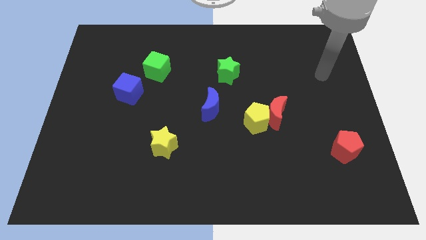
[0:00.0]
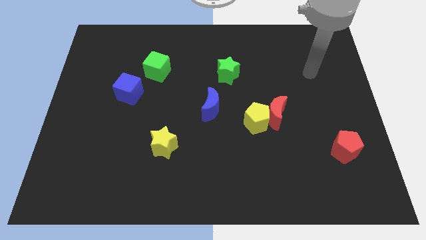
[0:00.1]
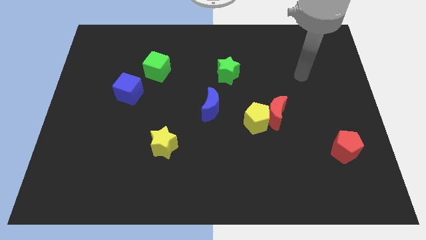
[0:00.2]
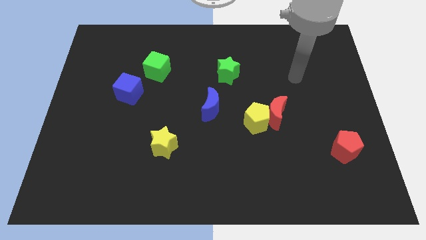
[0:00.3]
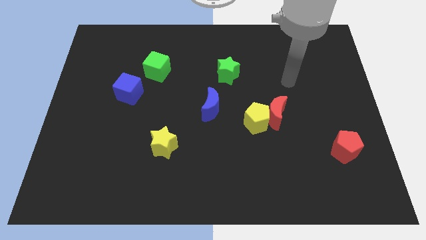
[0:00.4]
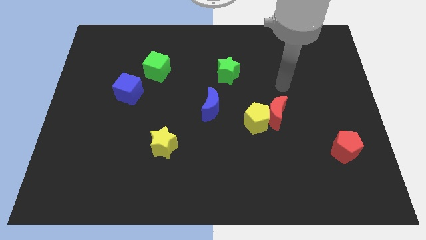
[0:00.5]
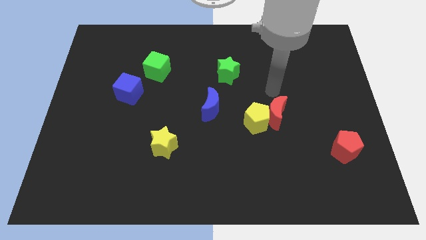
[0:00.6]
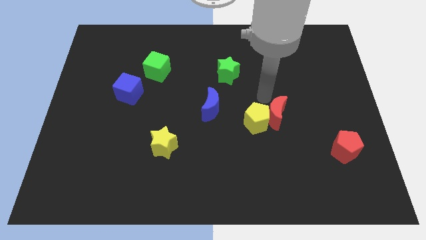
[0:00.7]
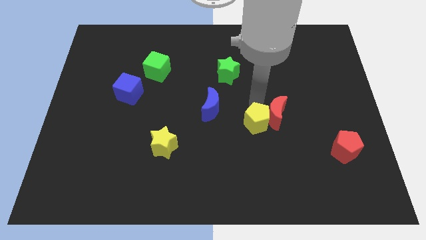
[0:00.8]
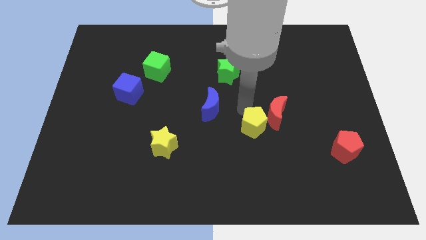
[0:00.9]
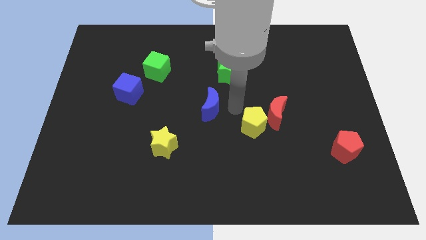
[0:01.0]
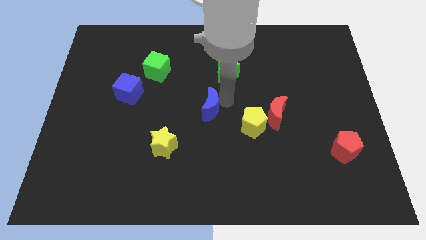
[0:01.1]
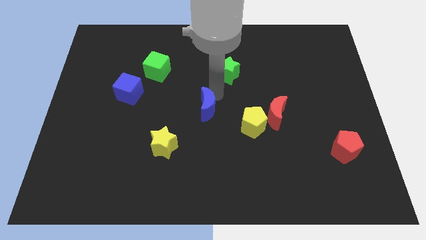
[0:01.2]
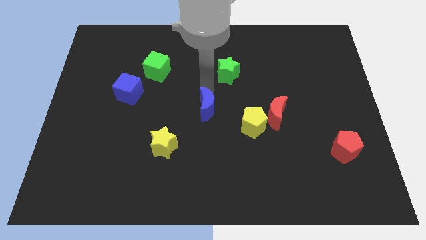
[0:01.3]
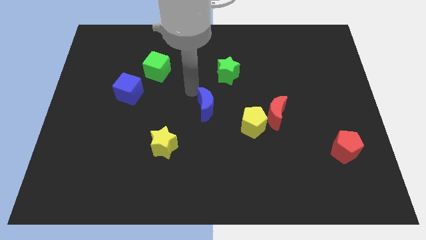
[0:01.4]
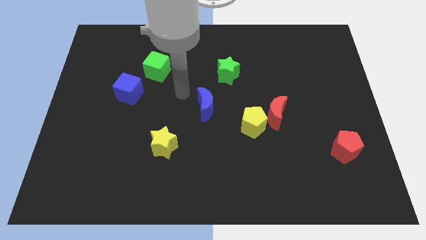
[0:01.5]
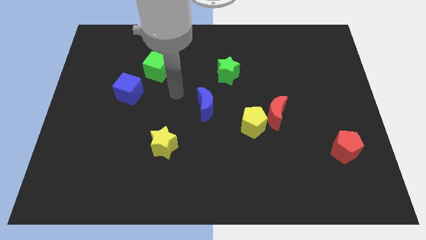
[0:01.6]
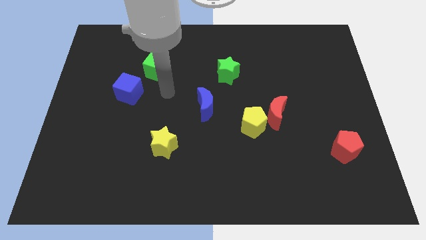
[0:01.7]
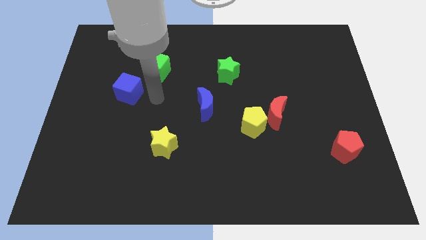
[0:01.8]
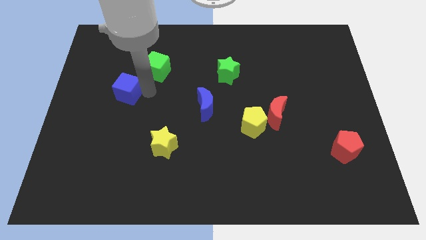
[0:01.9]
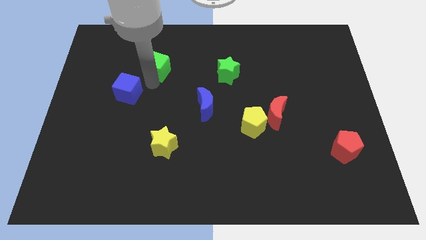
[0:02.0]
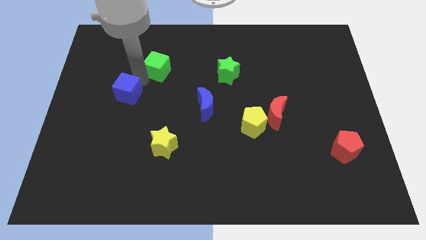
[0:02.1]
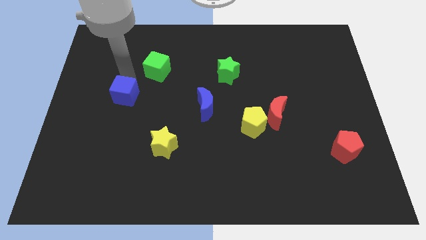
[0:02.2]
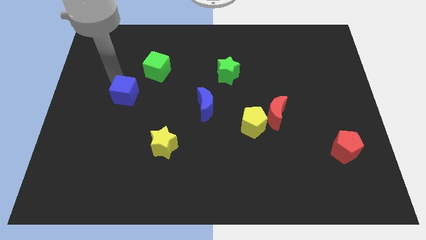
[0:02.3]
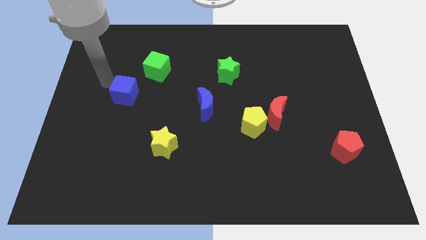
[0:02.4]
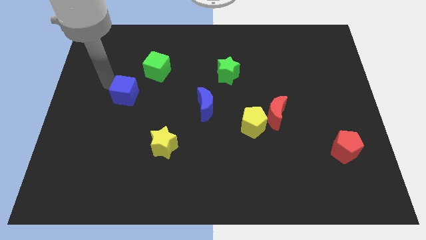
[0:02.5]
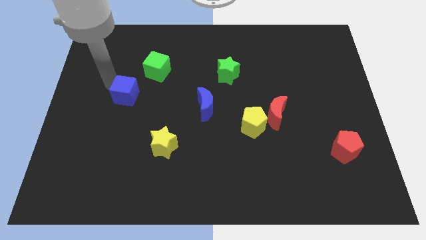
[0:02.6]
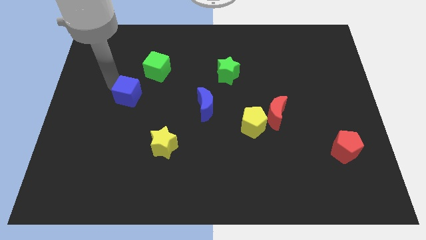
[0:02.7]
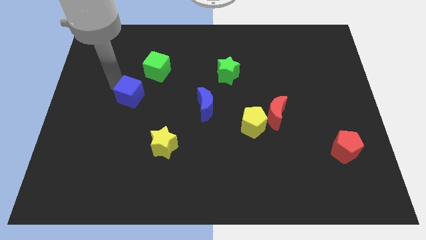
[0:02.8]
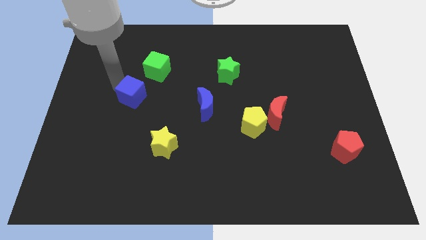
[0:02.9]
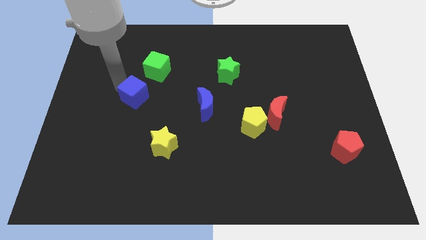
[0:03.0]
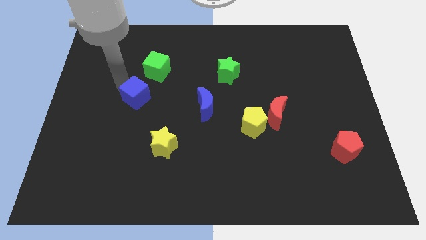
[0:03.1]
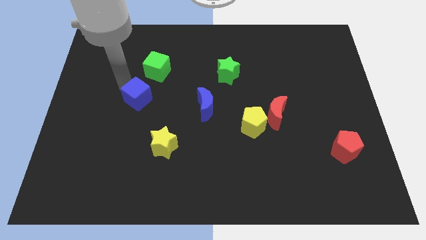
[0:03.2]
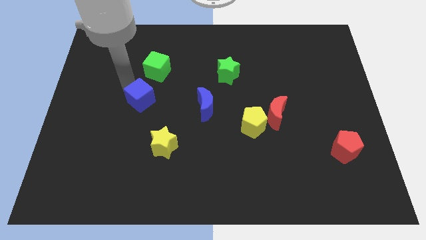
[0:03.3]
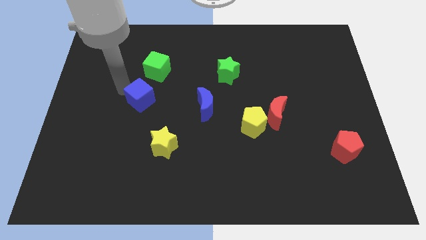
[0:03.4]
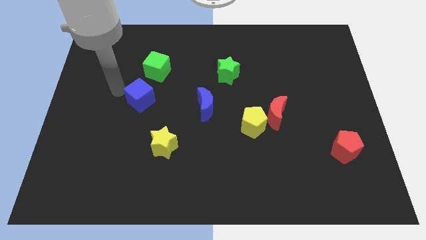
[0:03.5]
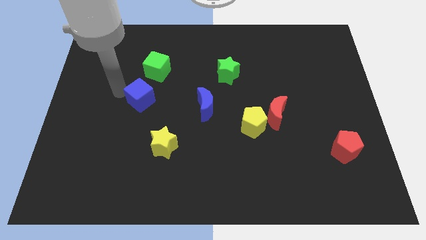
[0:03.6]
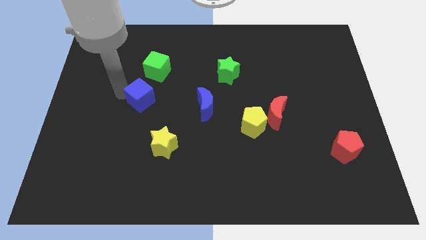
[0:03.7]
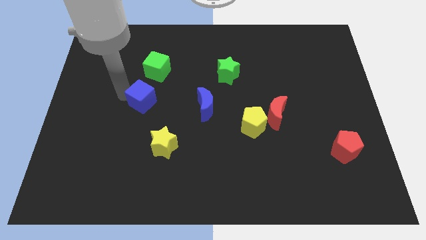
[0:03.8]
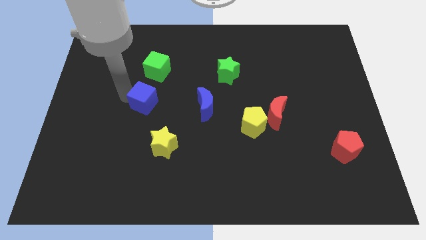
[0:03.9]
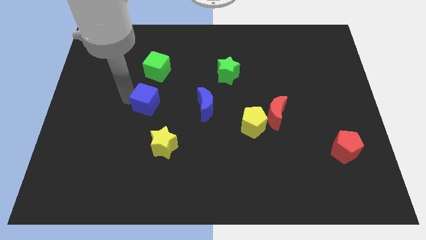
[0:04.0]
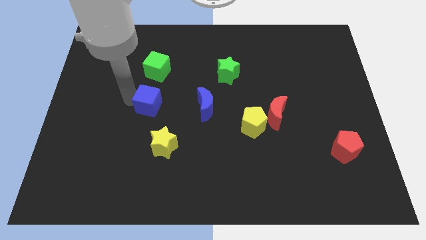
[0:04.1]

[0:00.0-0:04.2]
put the blue cube to the top of the yellow star

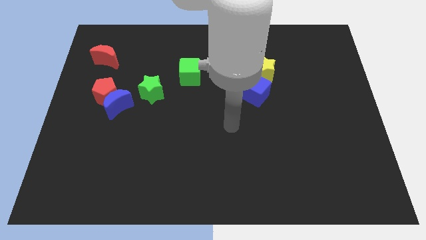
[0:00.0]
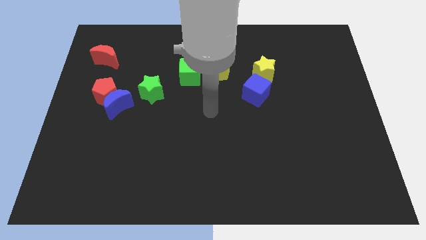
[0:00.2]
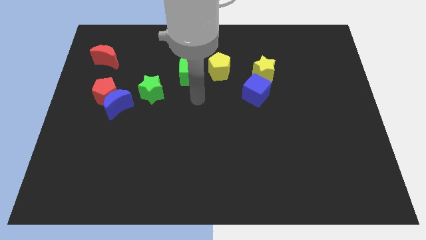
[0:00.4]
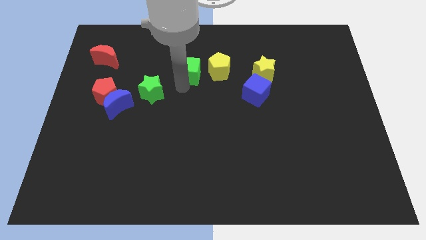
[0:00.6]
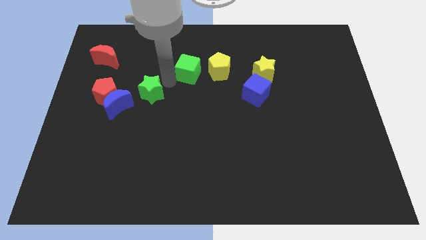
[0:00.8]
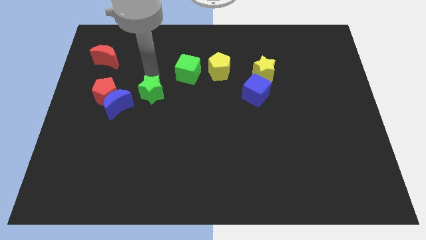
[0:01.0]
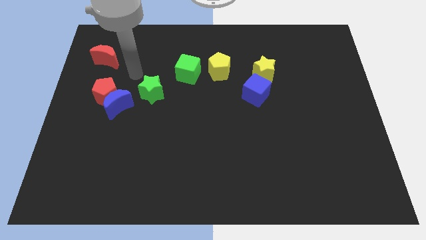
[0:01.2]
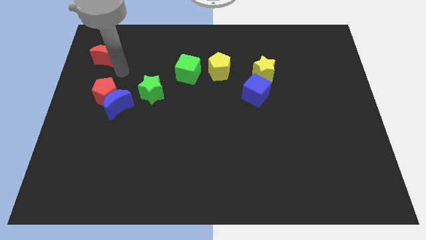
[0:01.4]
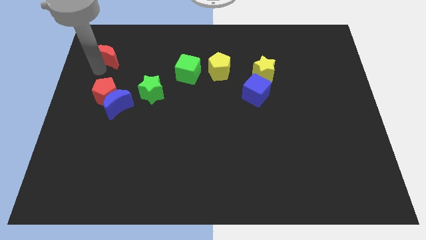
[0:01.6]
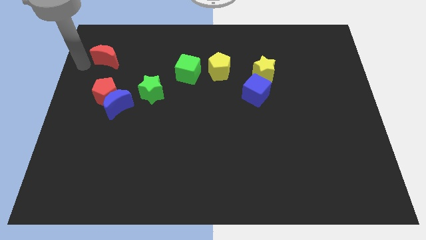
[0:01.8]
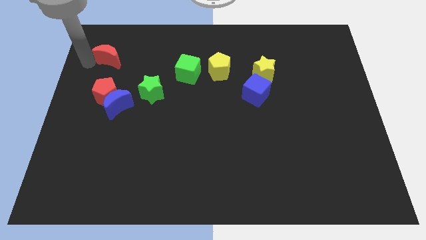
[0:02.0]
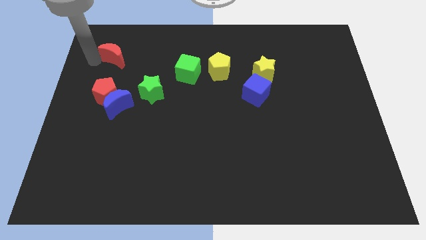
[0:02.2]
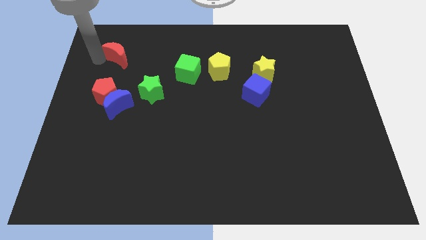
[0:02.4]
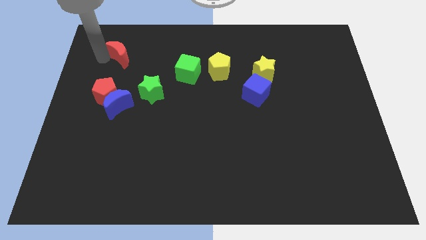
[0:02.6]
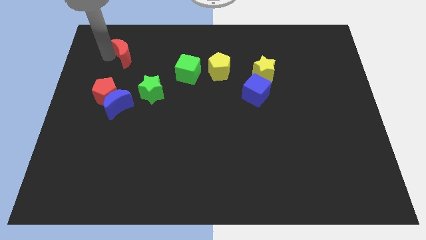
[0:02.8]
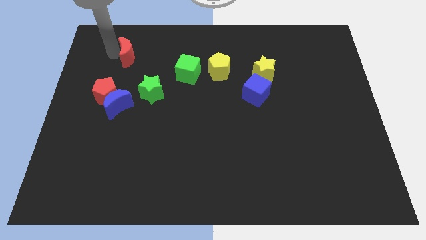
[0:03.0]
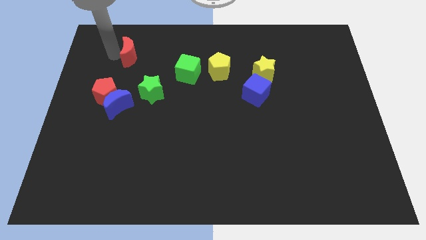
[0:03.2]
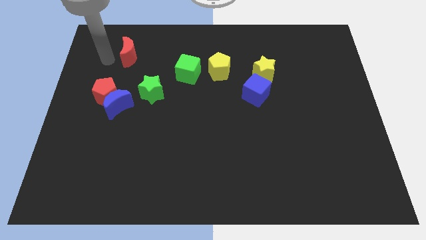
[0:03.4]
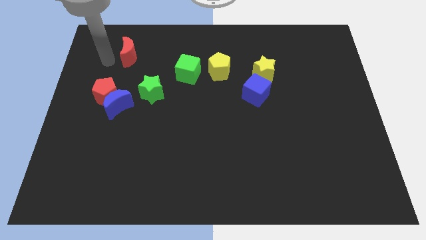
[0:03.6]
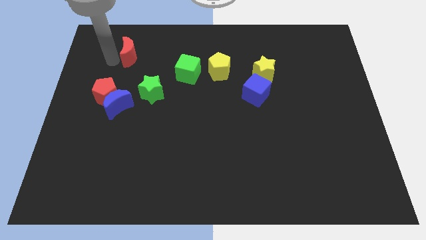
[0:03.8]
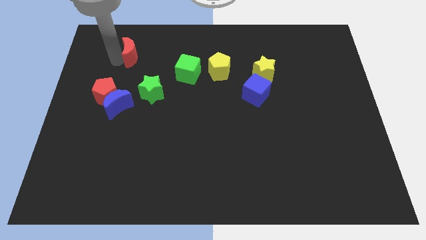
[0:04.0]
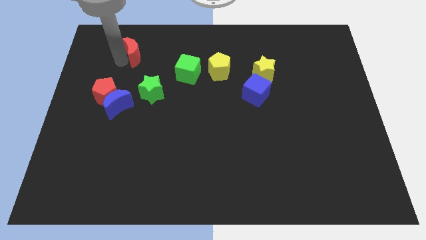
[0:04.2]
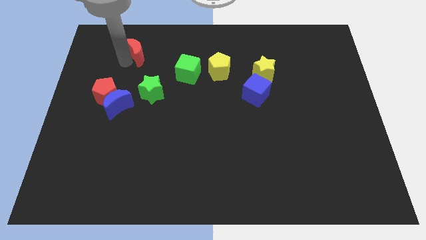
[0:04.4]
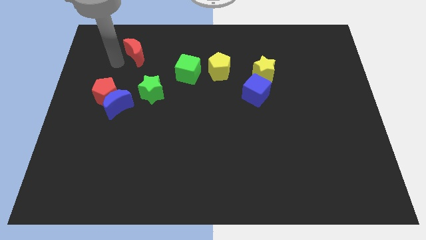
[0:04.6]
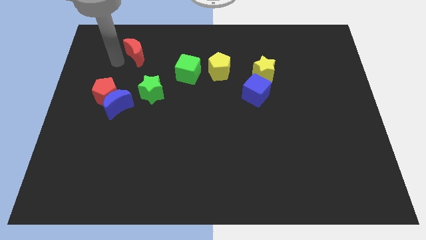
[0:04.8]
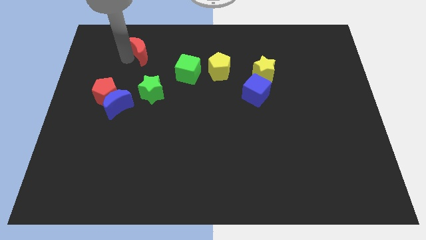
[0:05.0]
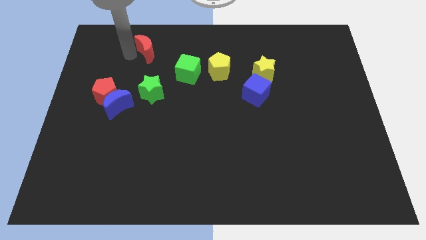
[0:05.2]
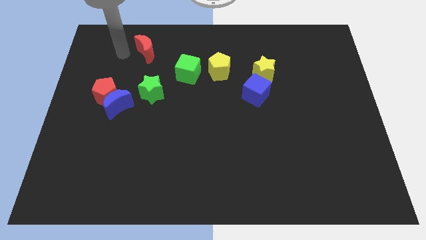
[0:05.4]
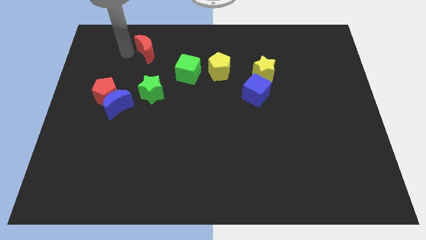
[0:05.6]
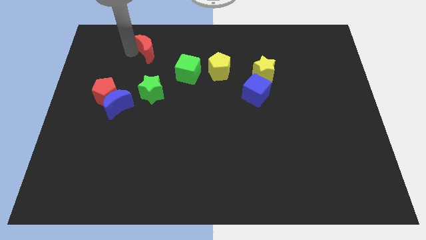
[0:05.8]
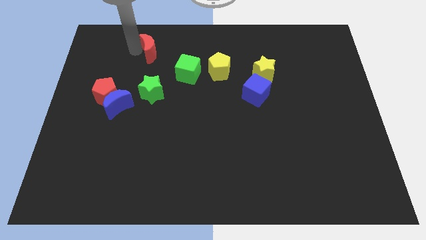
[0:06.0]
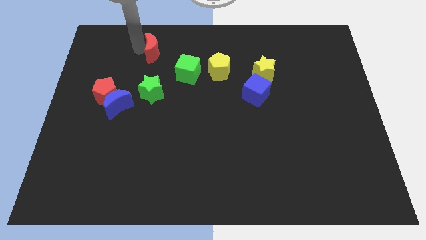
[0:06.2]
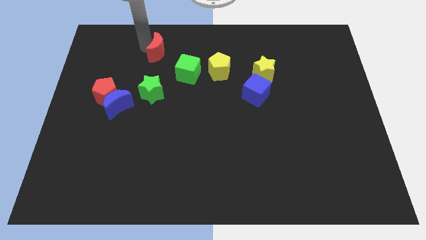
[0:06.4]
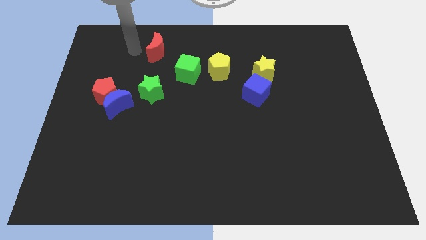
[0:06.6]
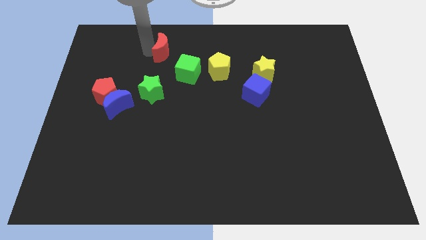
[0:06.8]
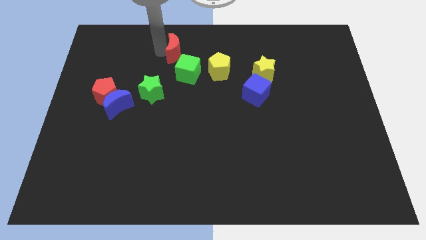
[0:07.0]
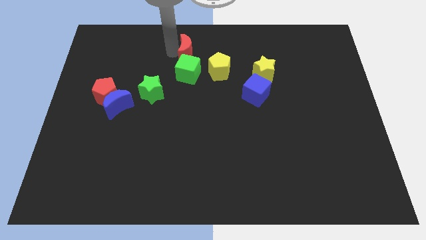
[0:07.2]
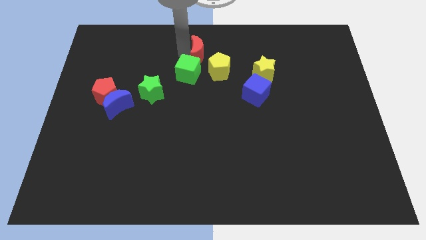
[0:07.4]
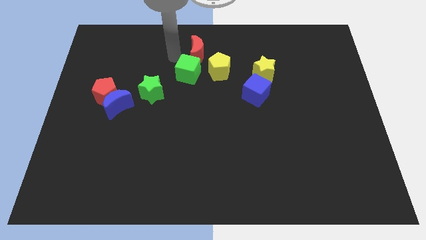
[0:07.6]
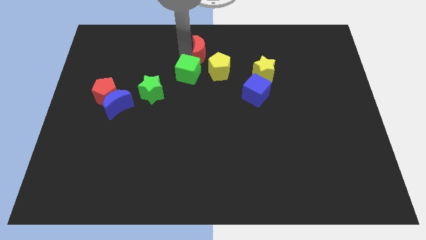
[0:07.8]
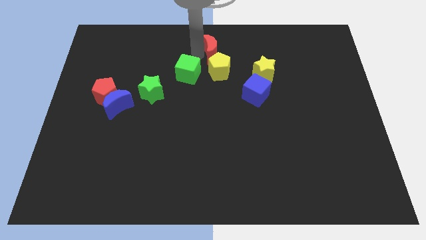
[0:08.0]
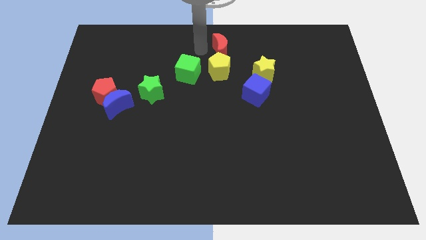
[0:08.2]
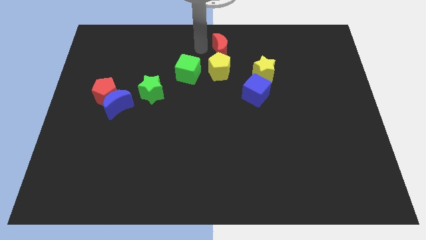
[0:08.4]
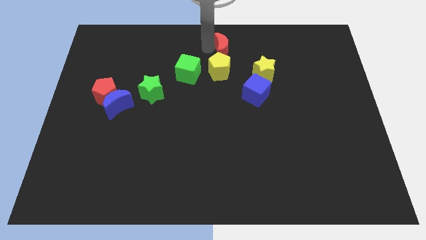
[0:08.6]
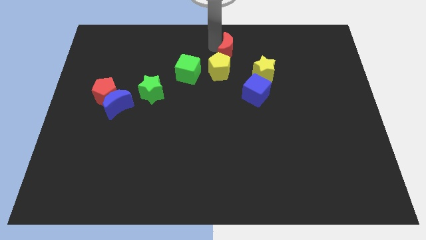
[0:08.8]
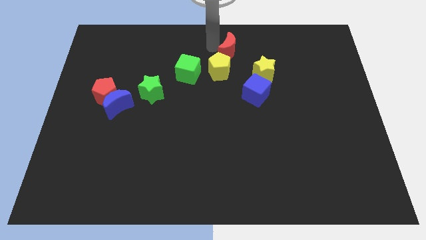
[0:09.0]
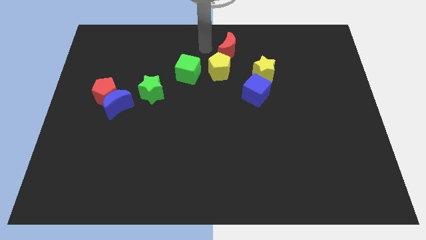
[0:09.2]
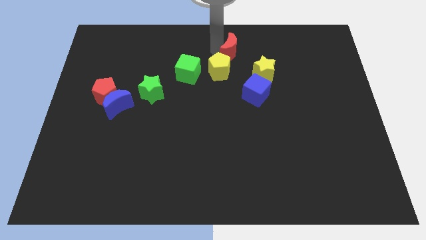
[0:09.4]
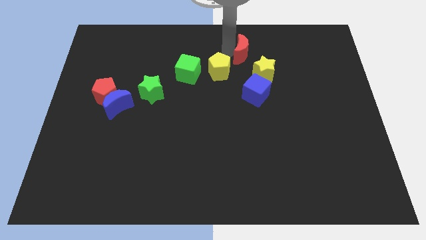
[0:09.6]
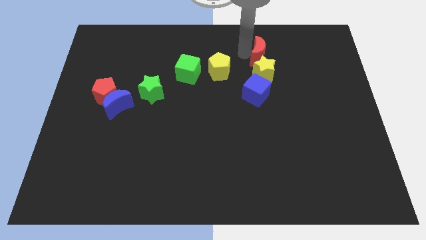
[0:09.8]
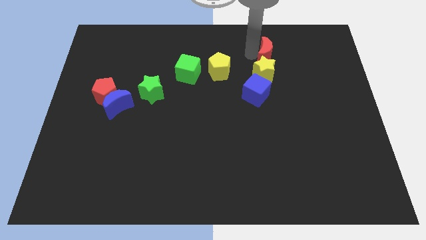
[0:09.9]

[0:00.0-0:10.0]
slide the red moon to the top right side of the yellow star
